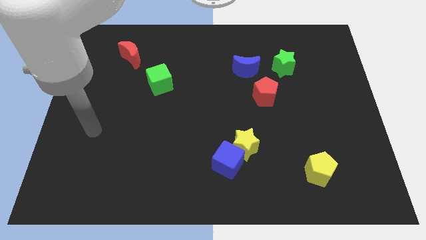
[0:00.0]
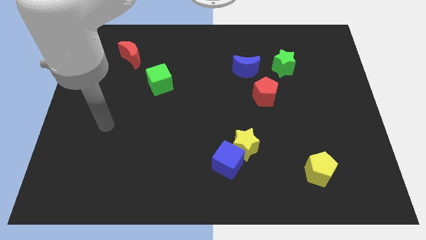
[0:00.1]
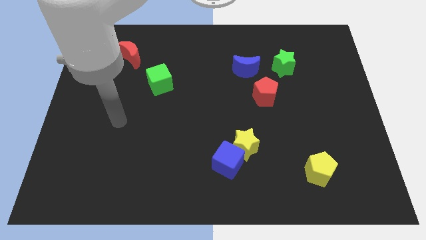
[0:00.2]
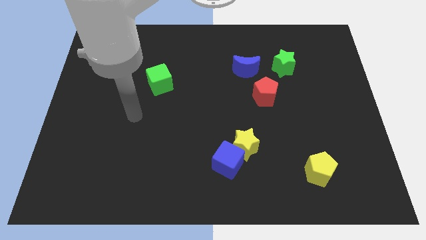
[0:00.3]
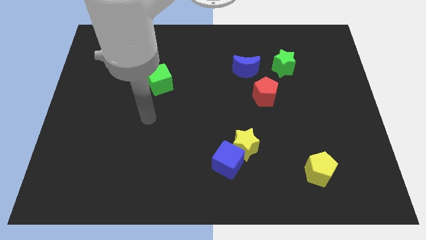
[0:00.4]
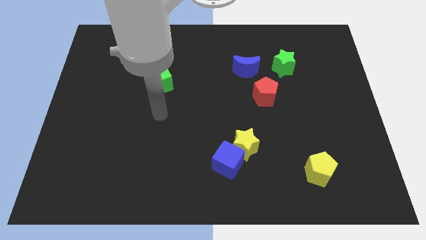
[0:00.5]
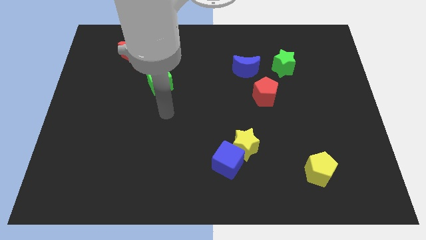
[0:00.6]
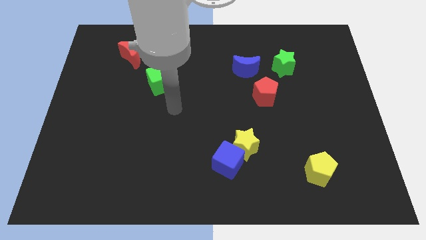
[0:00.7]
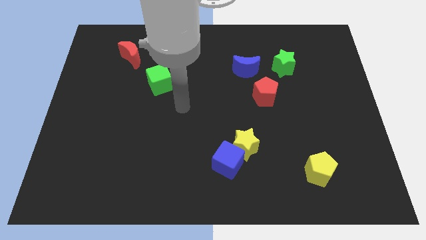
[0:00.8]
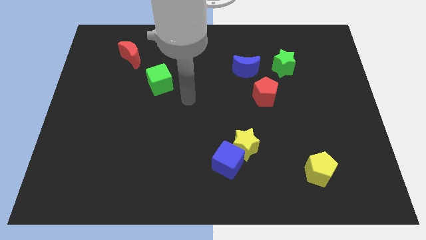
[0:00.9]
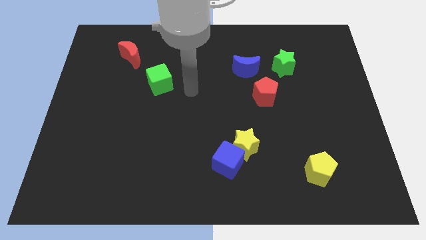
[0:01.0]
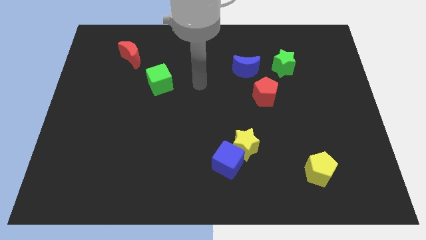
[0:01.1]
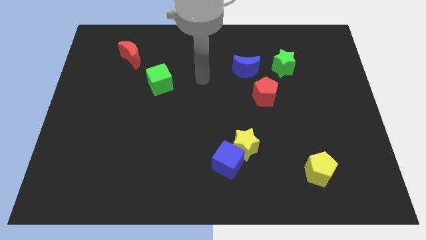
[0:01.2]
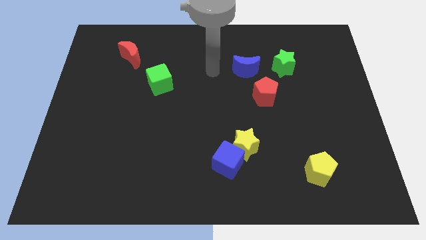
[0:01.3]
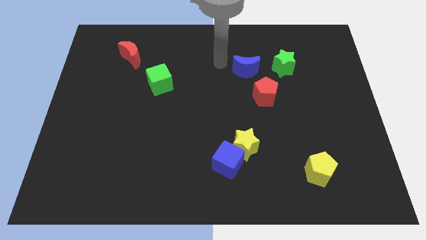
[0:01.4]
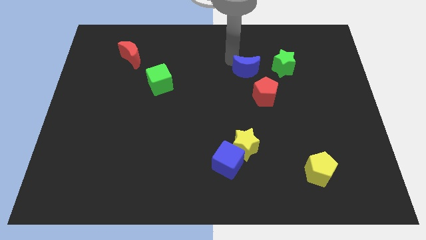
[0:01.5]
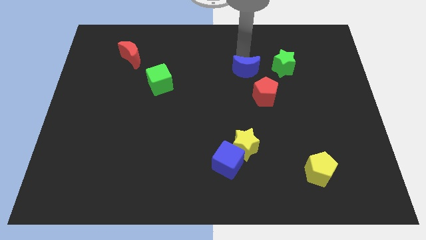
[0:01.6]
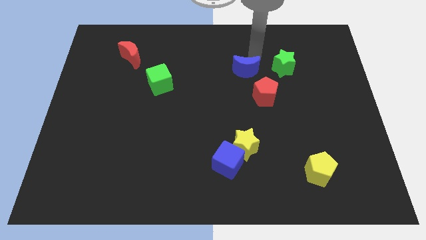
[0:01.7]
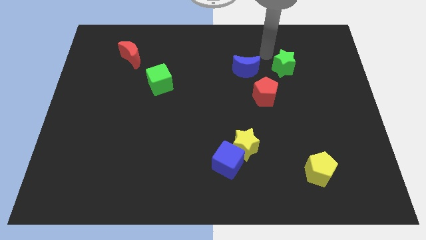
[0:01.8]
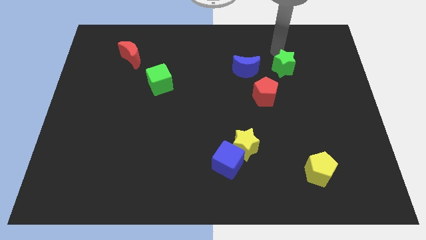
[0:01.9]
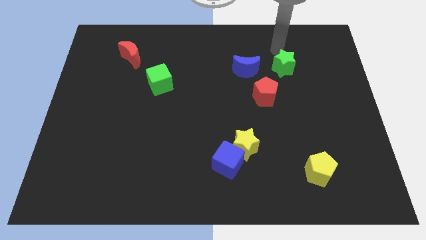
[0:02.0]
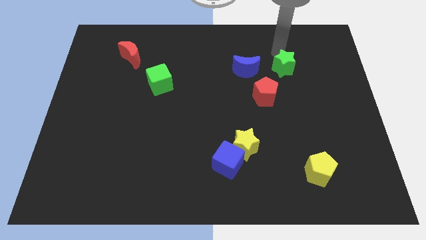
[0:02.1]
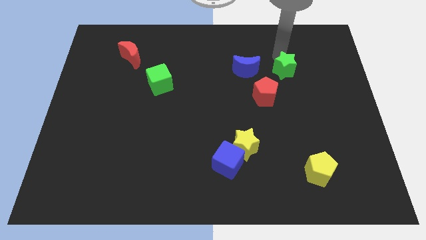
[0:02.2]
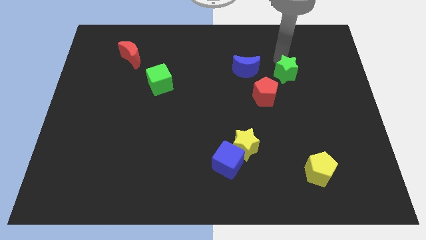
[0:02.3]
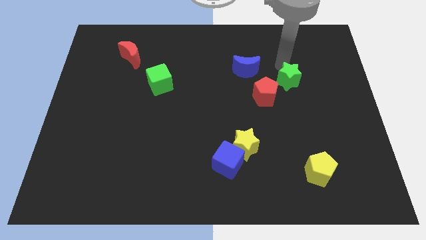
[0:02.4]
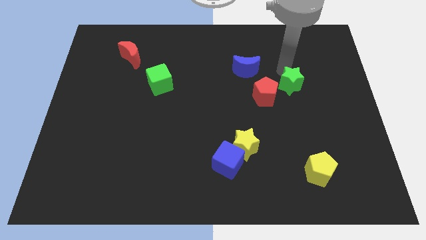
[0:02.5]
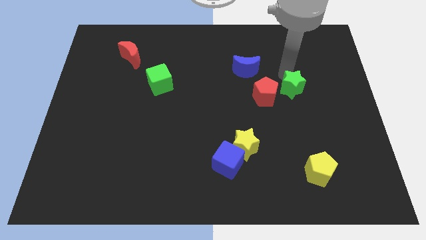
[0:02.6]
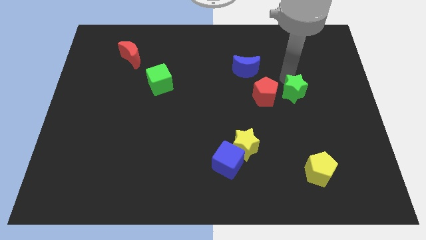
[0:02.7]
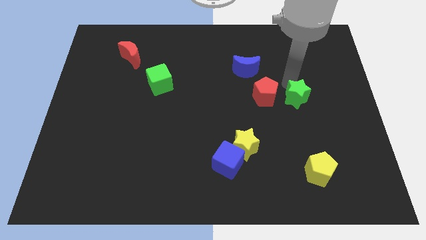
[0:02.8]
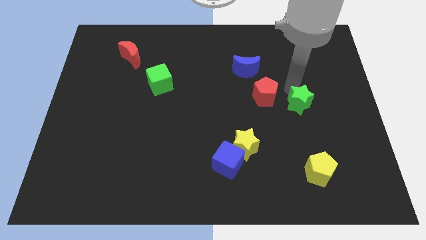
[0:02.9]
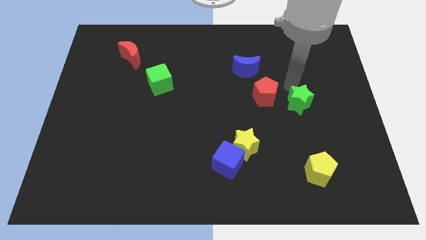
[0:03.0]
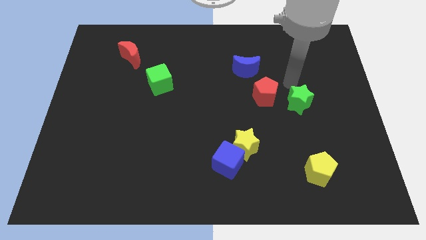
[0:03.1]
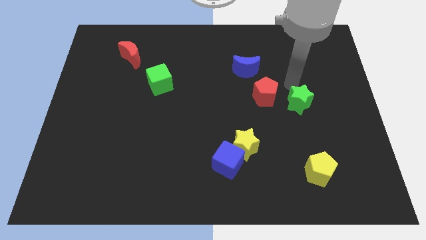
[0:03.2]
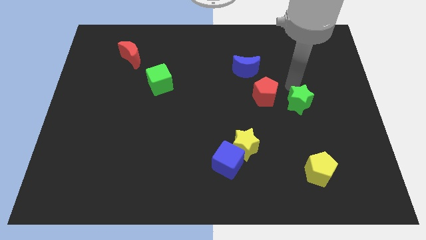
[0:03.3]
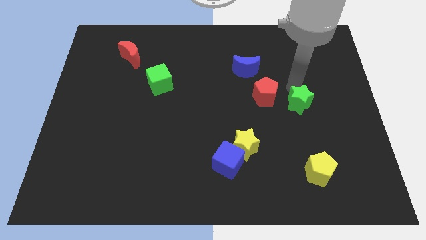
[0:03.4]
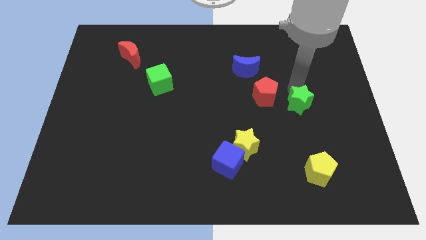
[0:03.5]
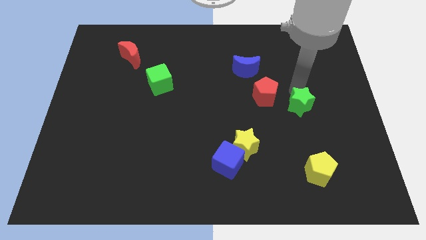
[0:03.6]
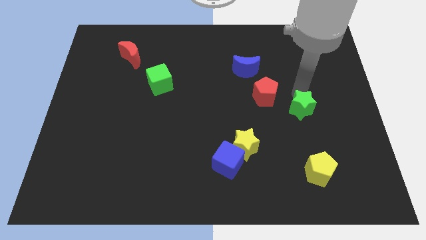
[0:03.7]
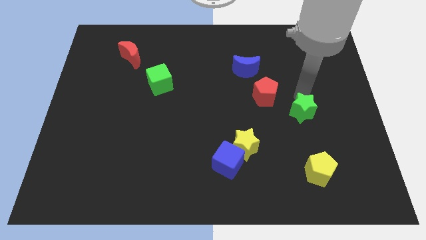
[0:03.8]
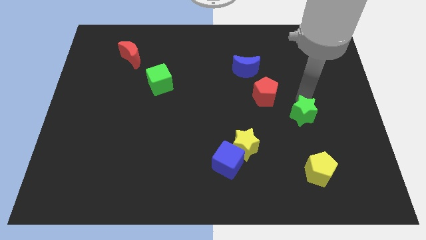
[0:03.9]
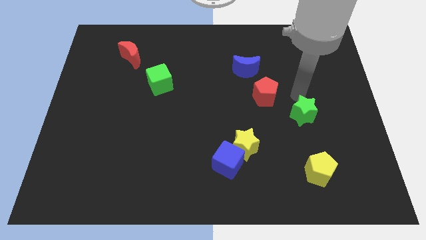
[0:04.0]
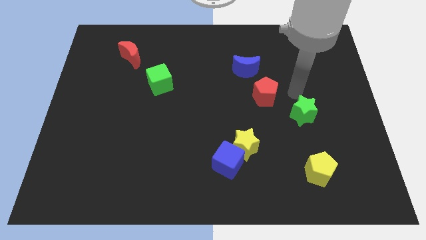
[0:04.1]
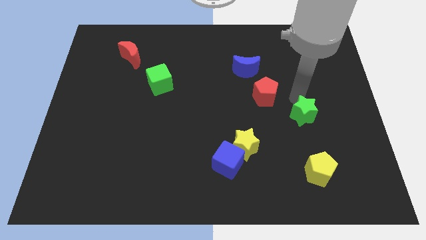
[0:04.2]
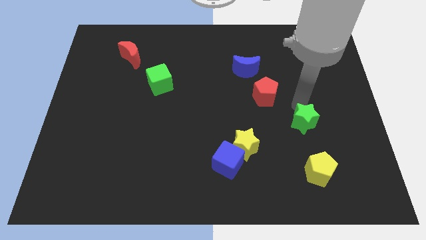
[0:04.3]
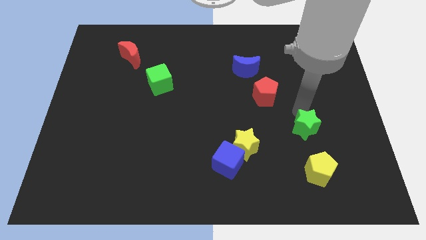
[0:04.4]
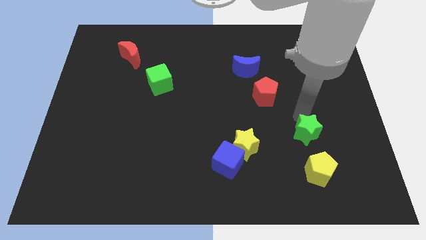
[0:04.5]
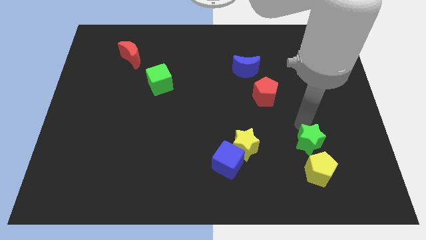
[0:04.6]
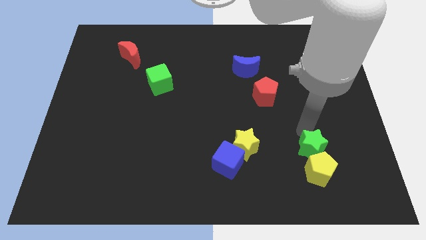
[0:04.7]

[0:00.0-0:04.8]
push the green star close to the yellow pentagon

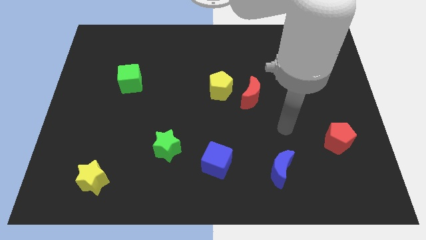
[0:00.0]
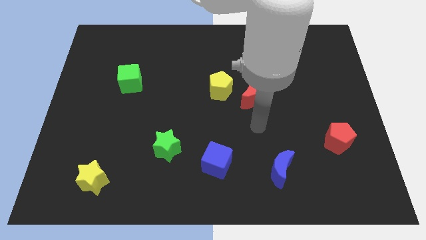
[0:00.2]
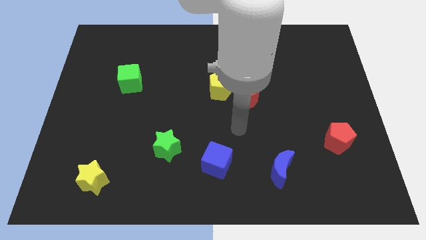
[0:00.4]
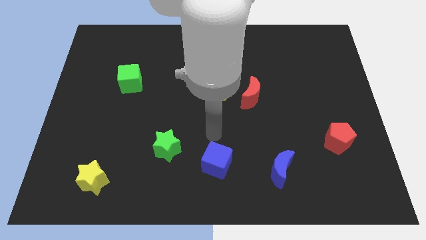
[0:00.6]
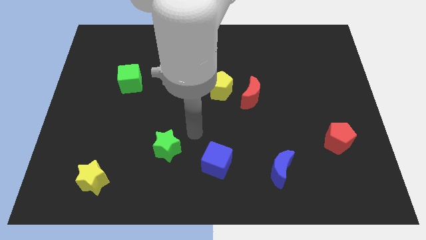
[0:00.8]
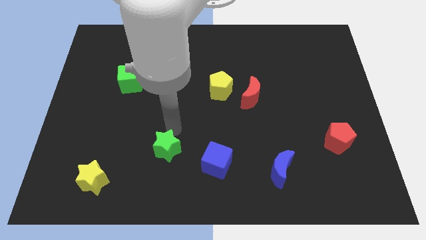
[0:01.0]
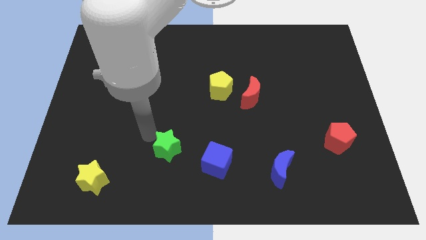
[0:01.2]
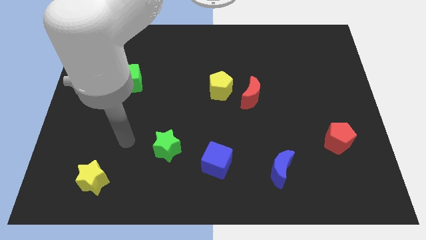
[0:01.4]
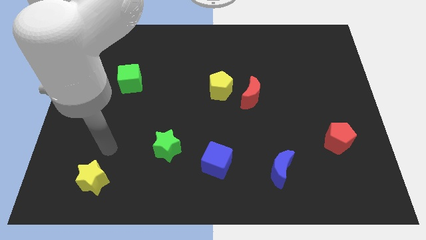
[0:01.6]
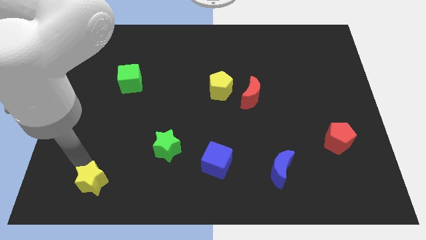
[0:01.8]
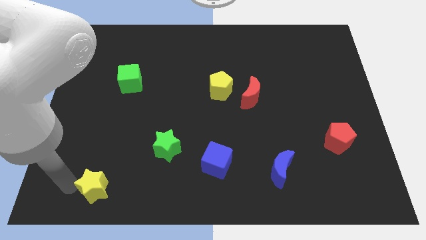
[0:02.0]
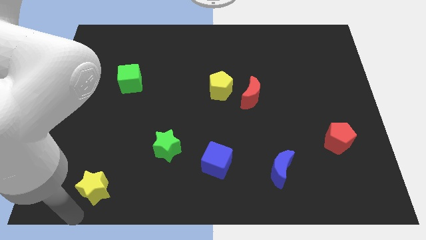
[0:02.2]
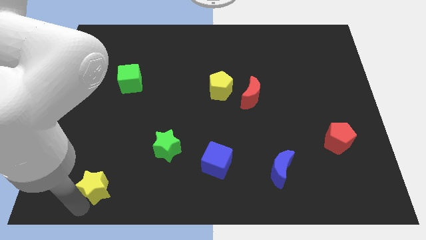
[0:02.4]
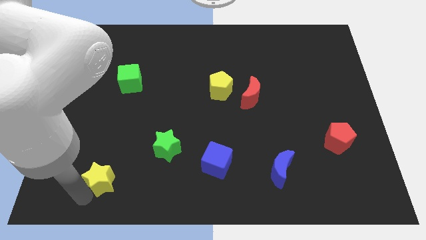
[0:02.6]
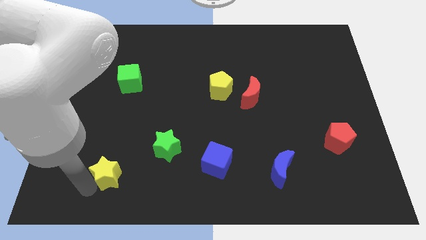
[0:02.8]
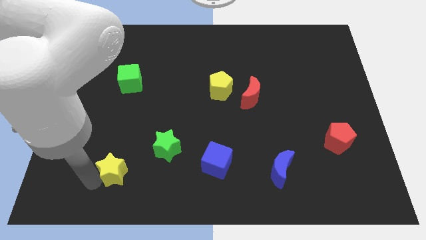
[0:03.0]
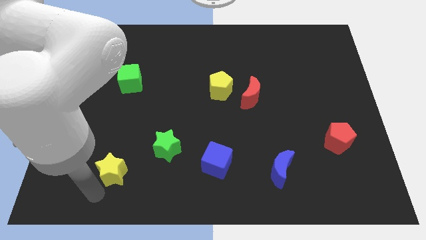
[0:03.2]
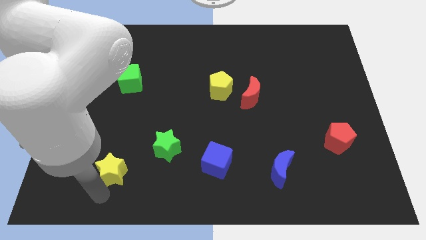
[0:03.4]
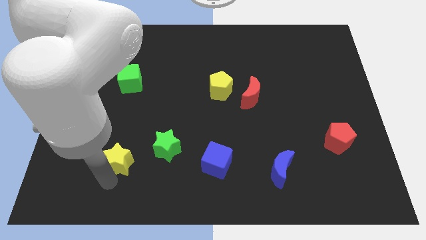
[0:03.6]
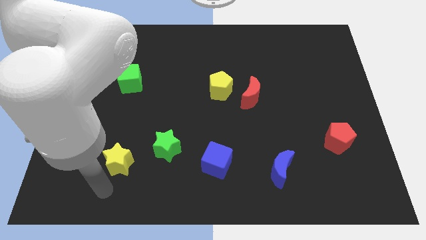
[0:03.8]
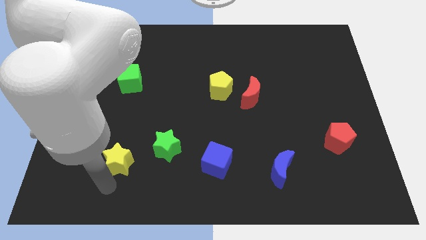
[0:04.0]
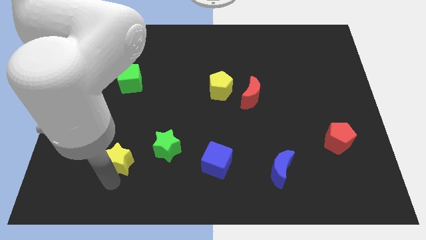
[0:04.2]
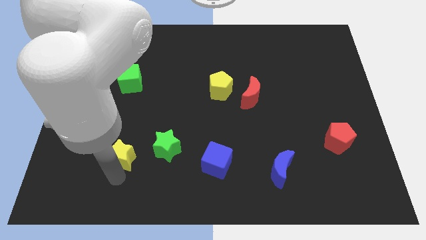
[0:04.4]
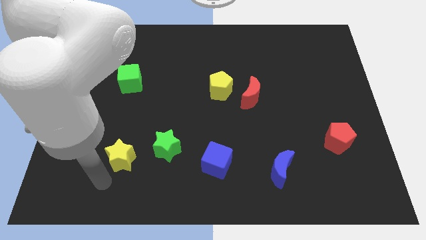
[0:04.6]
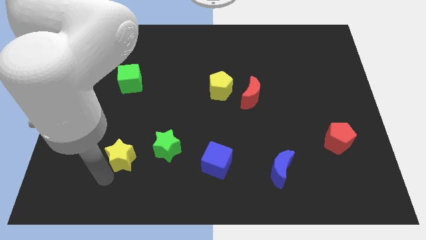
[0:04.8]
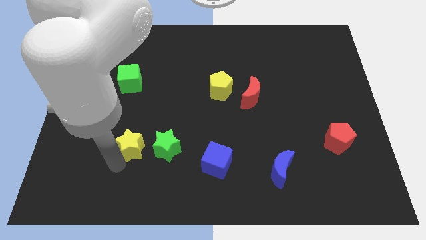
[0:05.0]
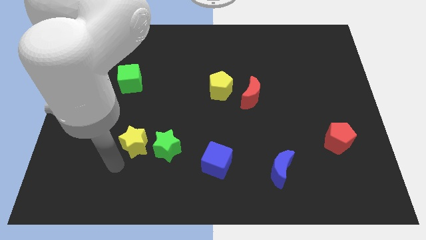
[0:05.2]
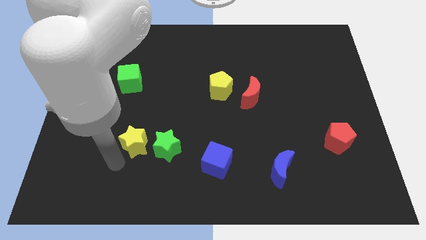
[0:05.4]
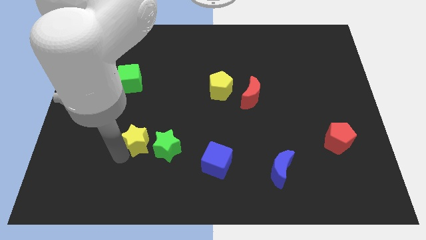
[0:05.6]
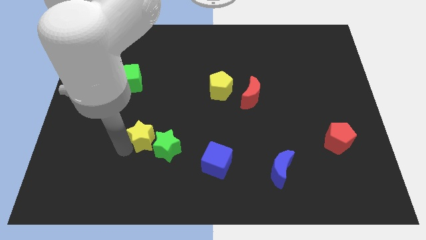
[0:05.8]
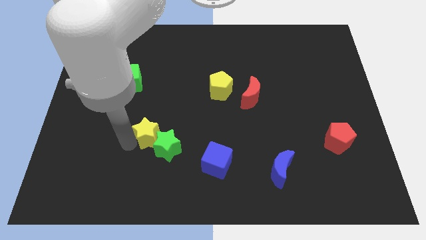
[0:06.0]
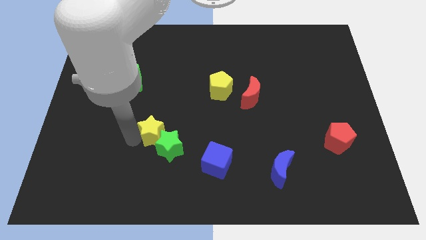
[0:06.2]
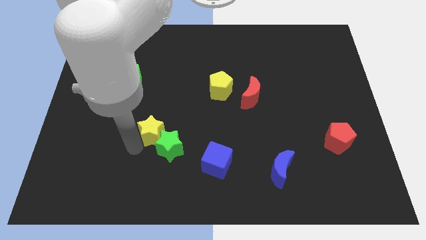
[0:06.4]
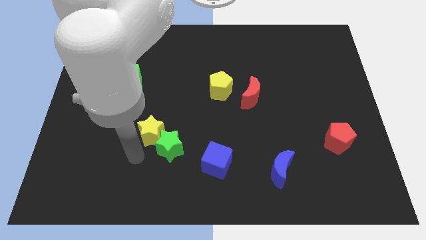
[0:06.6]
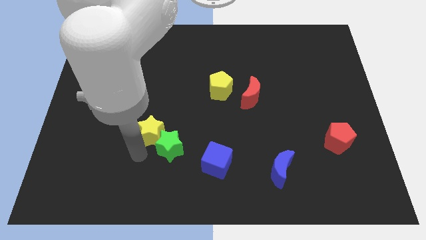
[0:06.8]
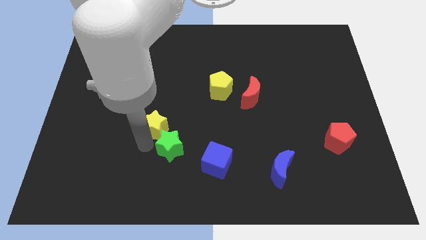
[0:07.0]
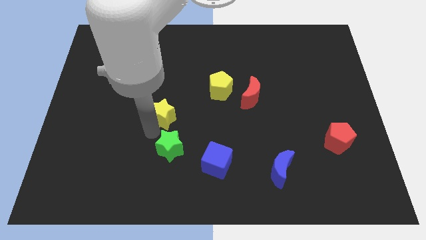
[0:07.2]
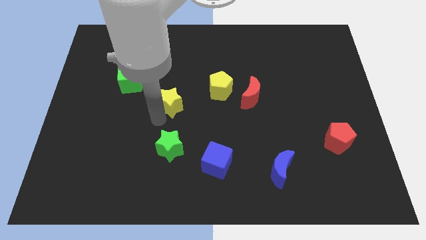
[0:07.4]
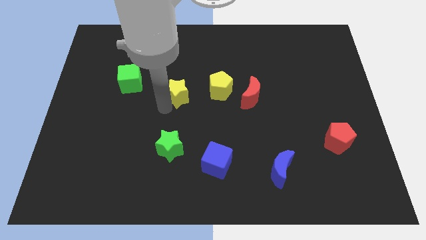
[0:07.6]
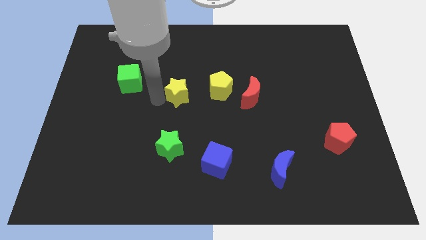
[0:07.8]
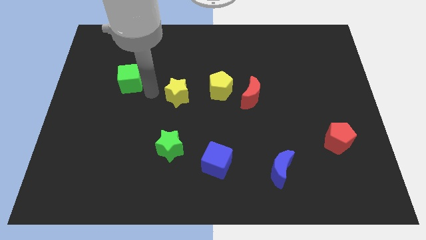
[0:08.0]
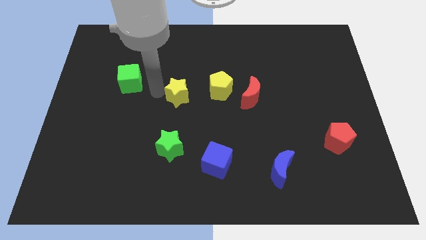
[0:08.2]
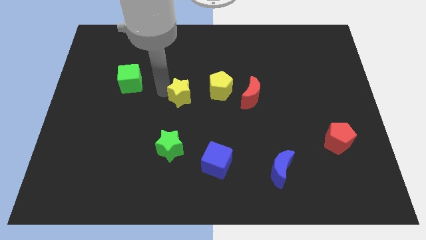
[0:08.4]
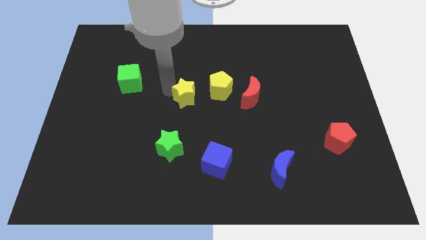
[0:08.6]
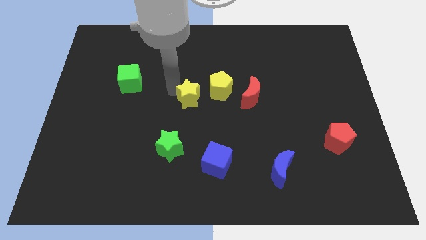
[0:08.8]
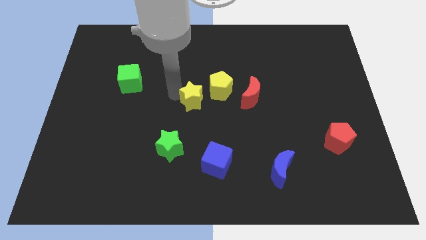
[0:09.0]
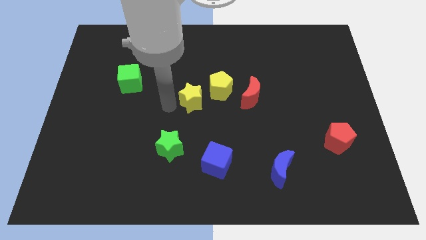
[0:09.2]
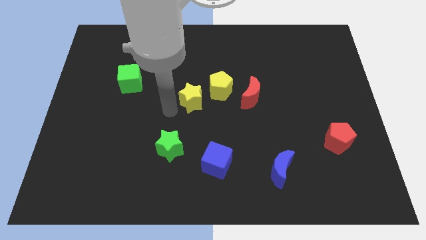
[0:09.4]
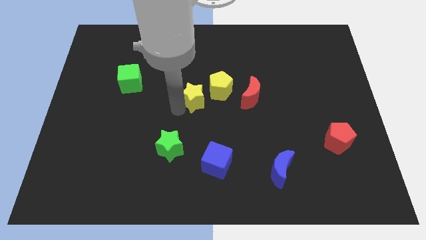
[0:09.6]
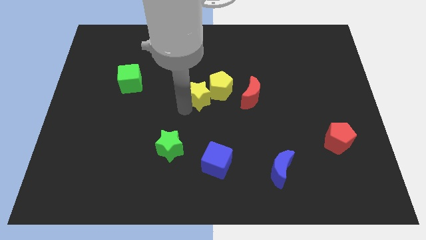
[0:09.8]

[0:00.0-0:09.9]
put the yellow star next to the yellow pentagon
